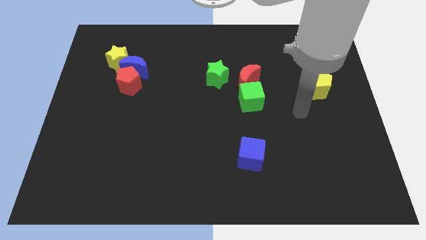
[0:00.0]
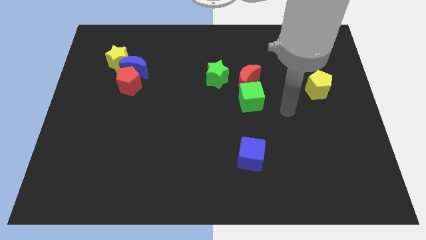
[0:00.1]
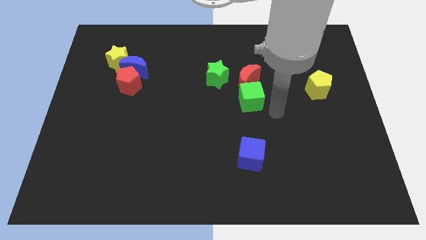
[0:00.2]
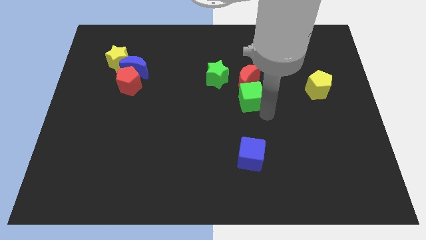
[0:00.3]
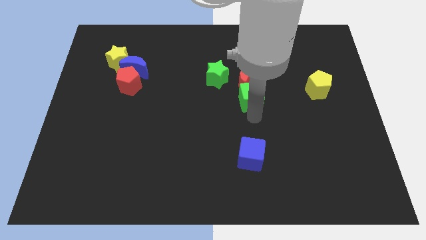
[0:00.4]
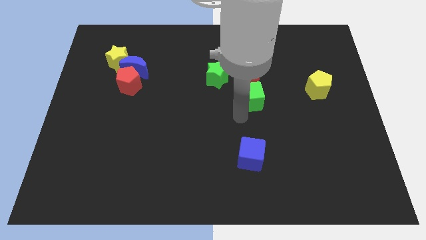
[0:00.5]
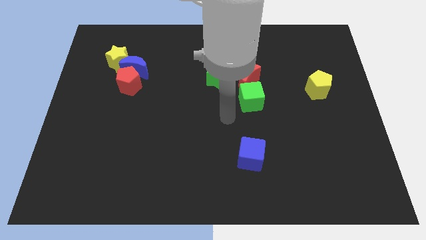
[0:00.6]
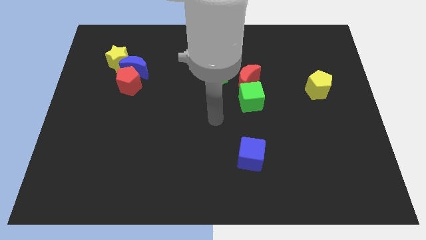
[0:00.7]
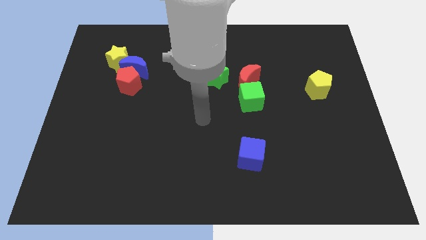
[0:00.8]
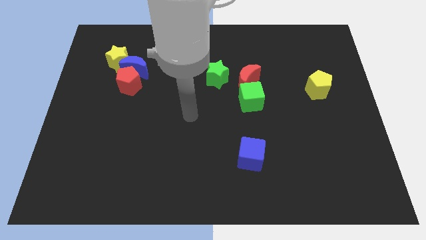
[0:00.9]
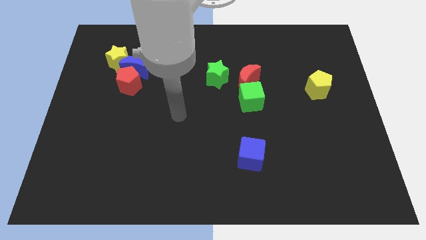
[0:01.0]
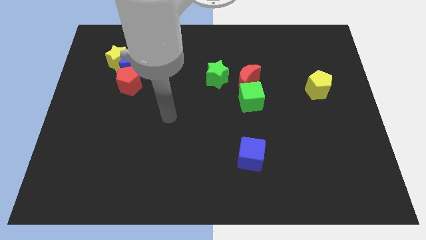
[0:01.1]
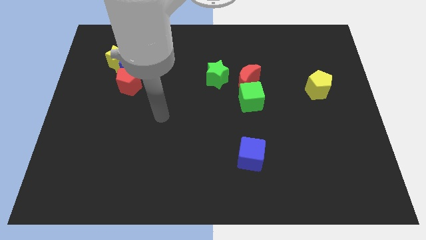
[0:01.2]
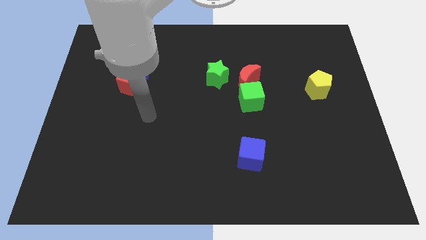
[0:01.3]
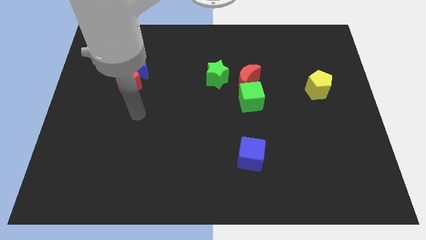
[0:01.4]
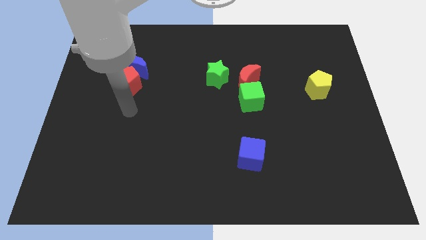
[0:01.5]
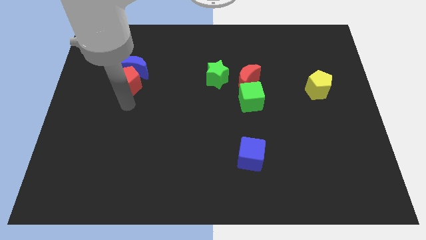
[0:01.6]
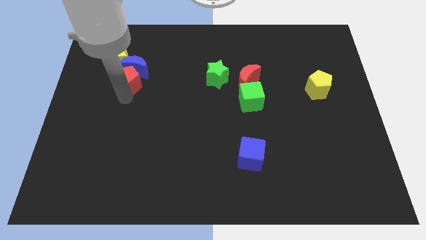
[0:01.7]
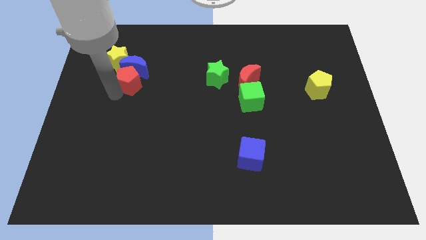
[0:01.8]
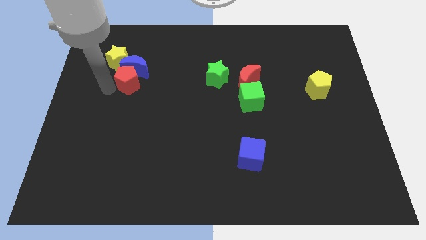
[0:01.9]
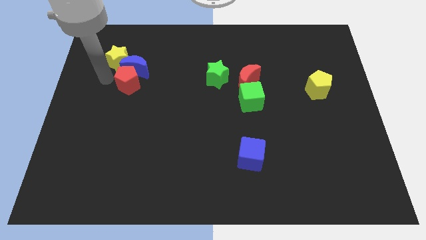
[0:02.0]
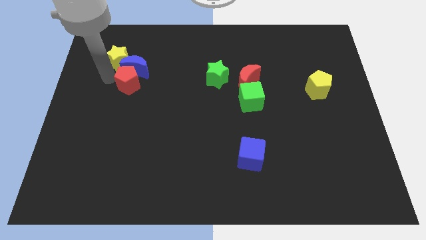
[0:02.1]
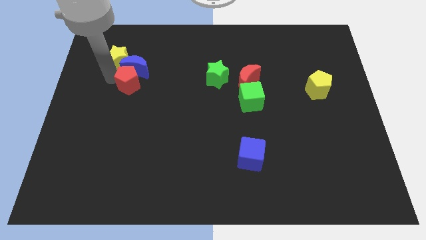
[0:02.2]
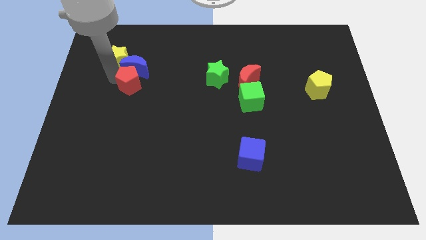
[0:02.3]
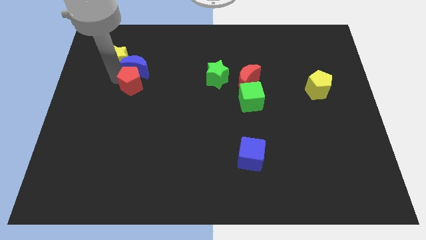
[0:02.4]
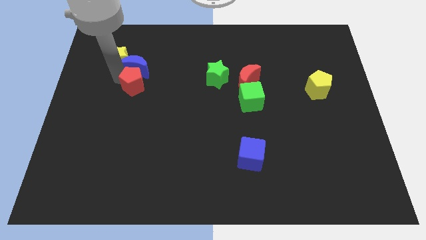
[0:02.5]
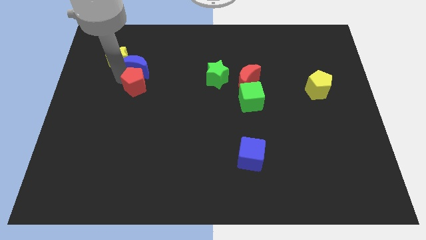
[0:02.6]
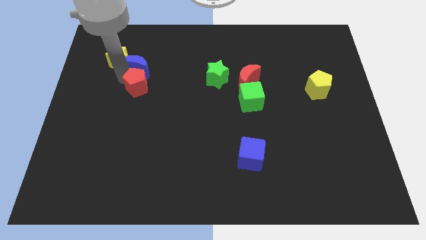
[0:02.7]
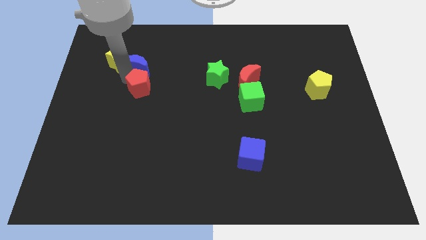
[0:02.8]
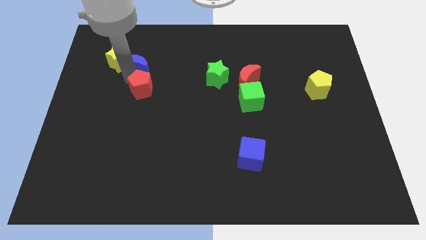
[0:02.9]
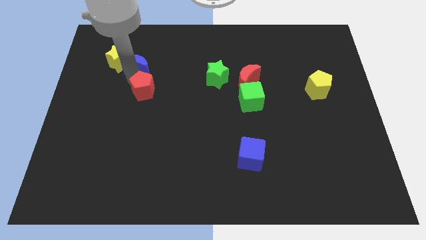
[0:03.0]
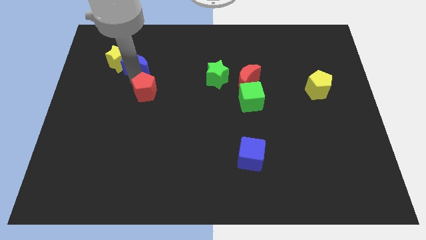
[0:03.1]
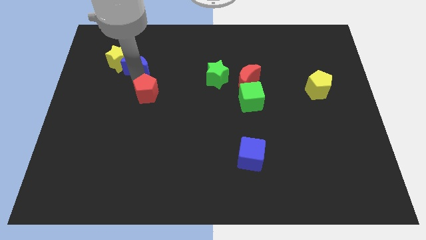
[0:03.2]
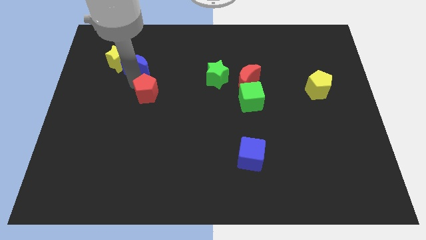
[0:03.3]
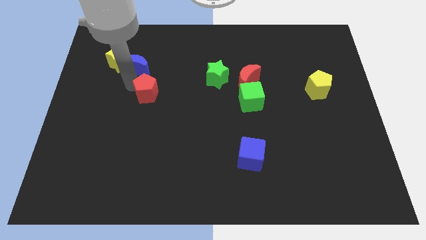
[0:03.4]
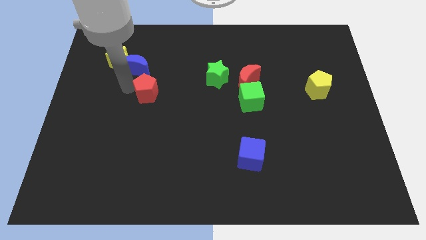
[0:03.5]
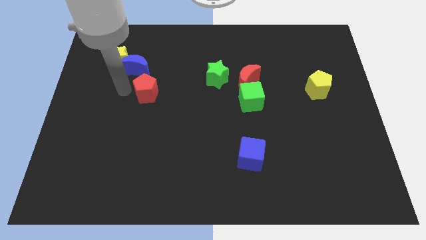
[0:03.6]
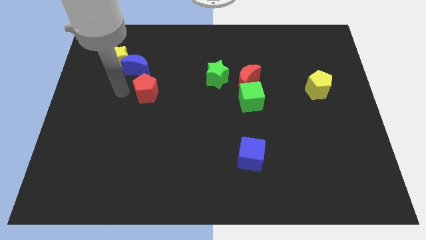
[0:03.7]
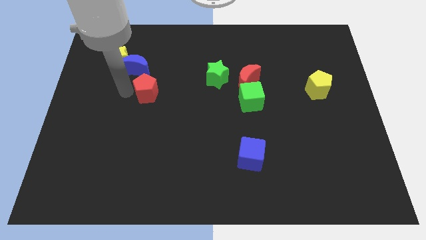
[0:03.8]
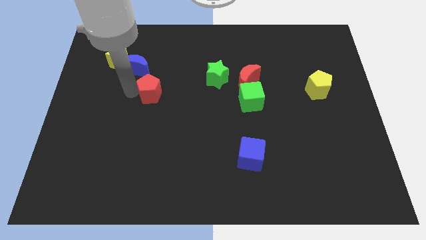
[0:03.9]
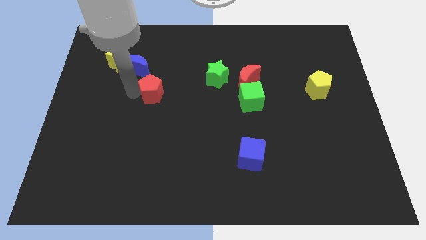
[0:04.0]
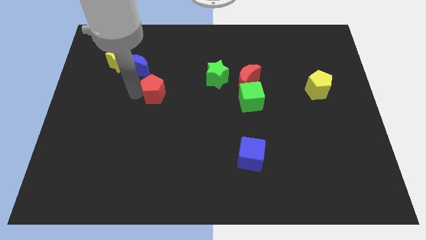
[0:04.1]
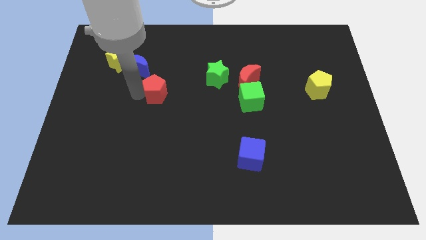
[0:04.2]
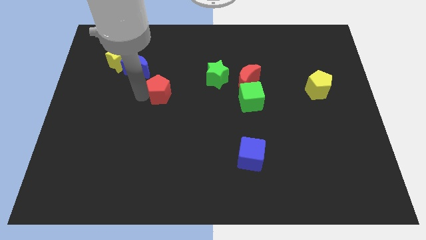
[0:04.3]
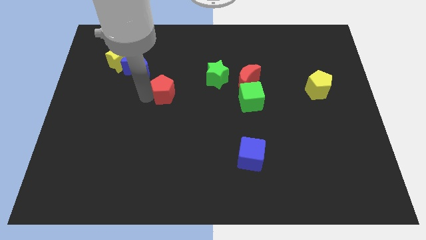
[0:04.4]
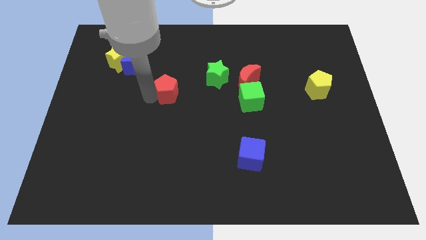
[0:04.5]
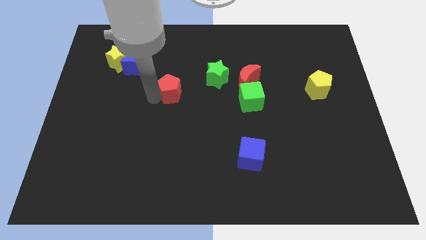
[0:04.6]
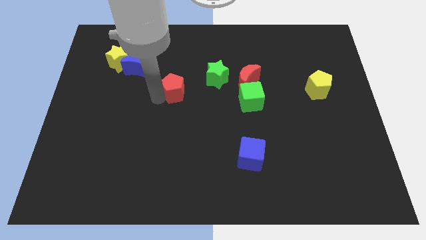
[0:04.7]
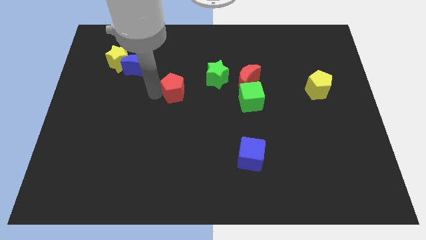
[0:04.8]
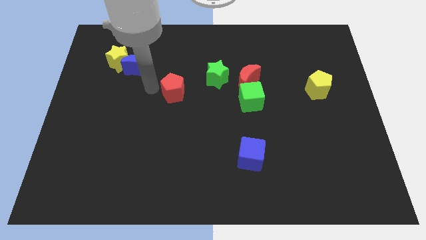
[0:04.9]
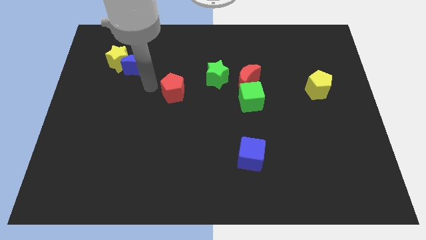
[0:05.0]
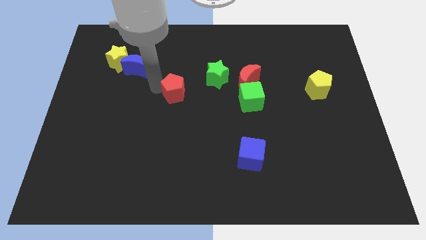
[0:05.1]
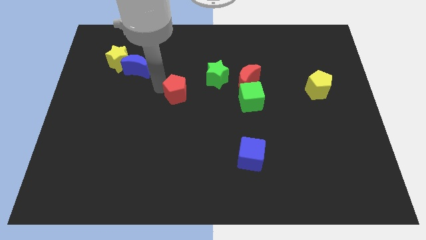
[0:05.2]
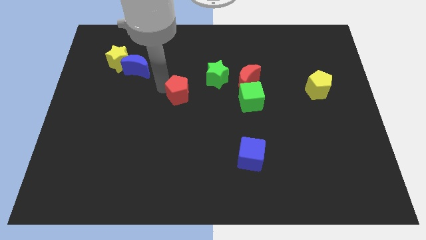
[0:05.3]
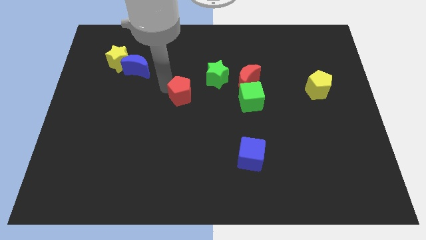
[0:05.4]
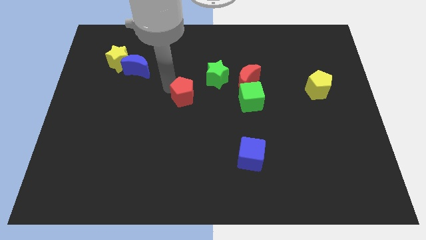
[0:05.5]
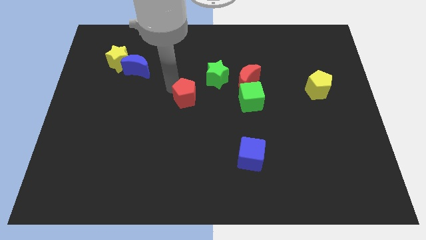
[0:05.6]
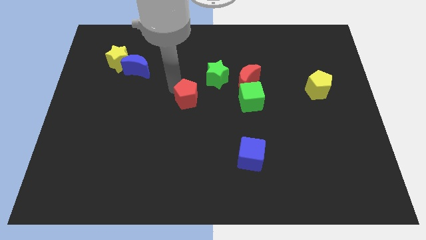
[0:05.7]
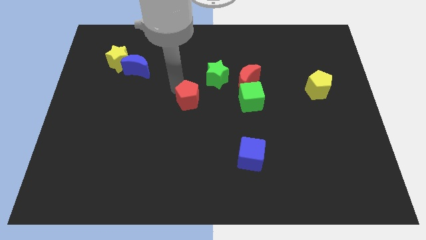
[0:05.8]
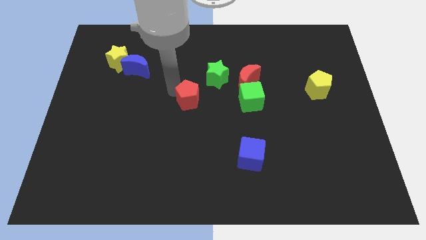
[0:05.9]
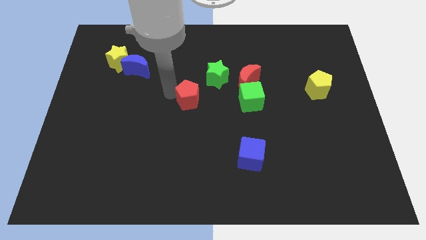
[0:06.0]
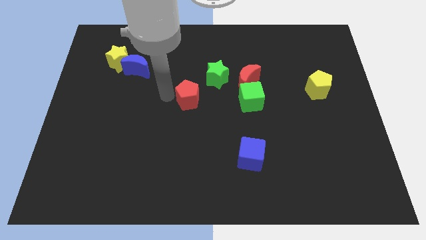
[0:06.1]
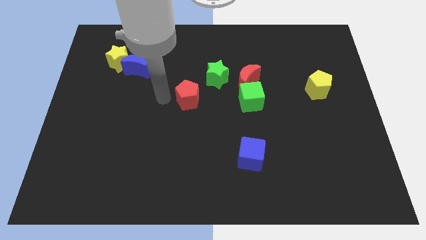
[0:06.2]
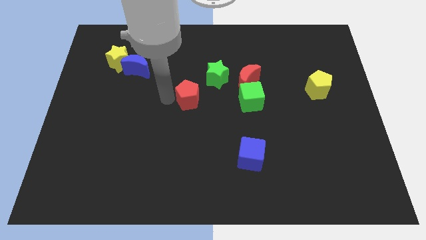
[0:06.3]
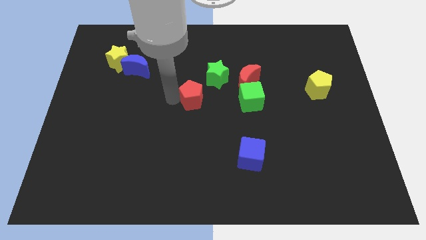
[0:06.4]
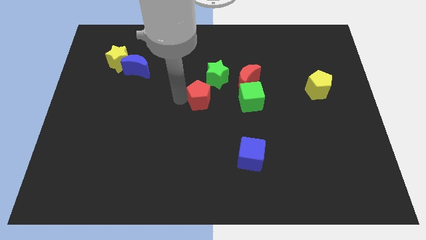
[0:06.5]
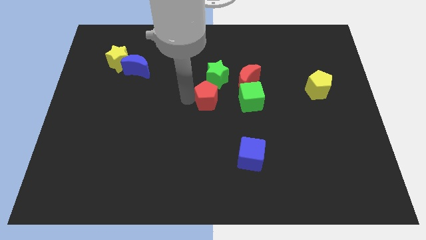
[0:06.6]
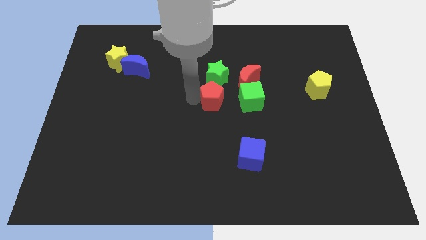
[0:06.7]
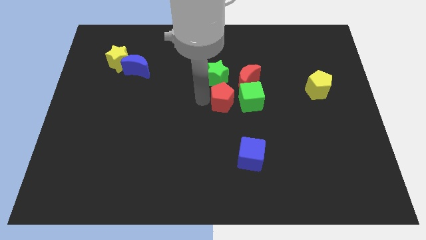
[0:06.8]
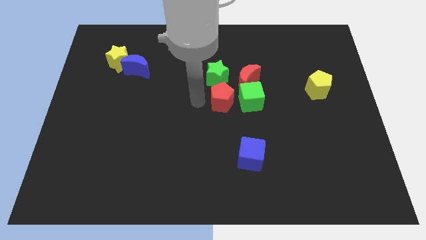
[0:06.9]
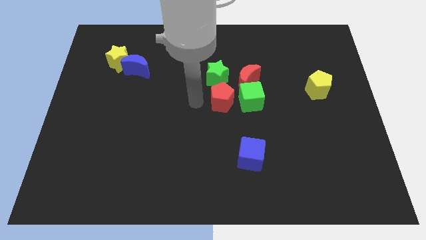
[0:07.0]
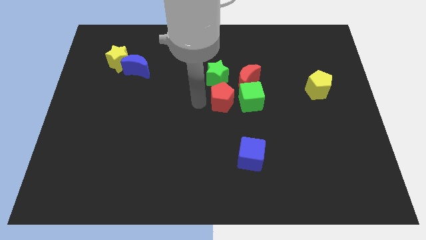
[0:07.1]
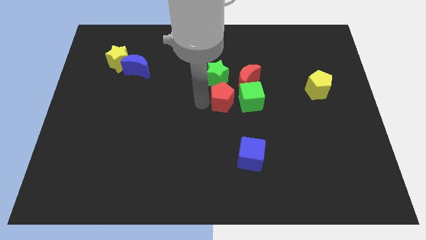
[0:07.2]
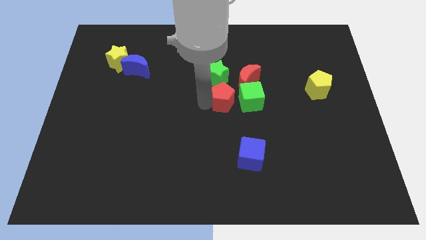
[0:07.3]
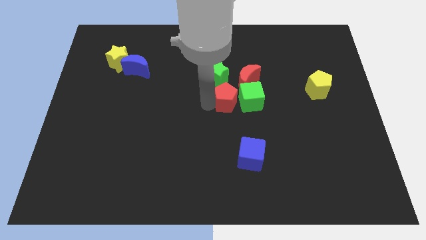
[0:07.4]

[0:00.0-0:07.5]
move the red pentagon towards the green cube
